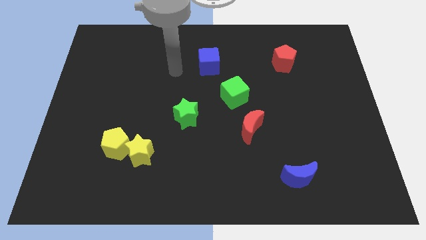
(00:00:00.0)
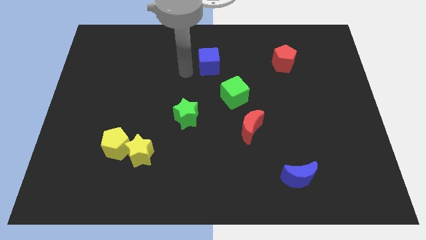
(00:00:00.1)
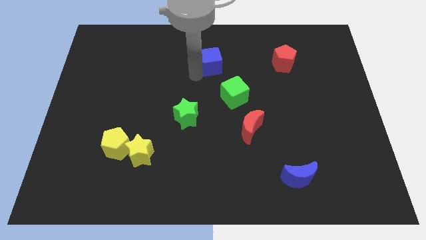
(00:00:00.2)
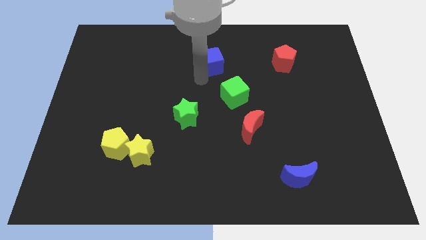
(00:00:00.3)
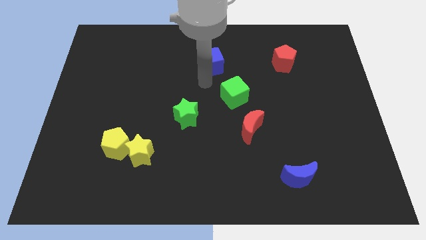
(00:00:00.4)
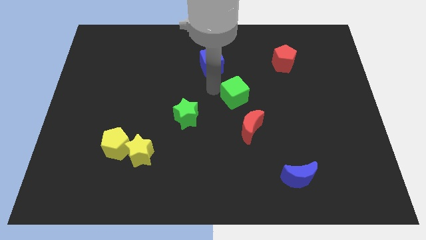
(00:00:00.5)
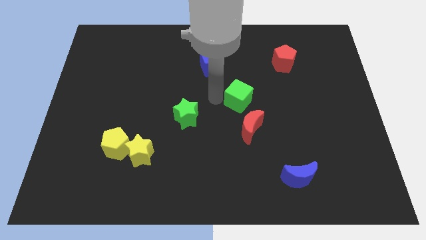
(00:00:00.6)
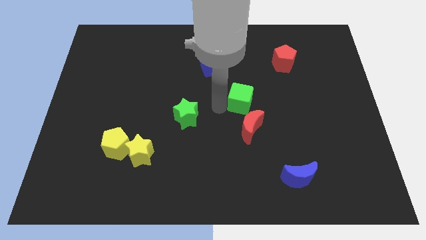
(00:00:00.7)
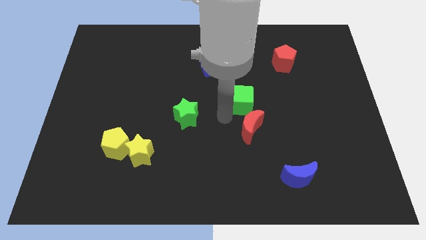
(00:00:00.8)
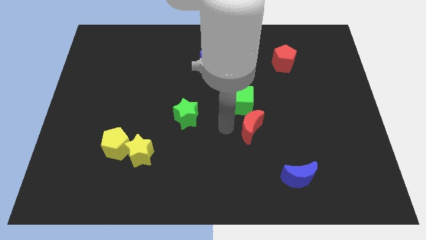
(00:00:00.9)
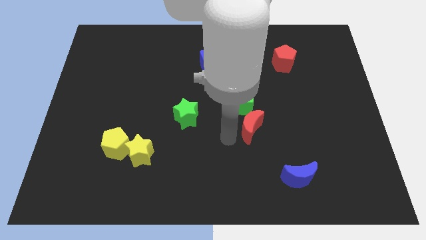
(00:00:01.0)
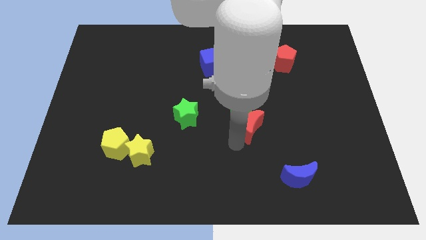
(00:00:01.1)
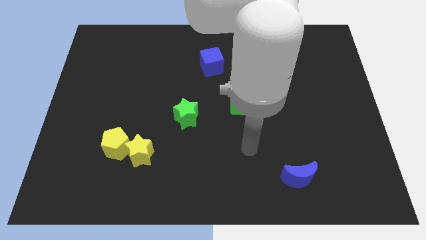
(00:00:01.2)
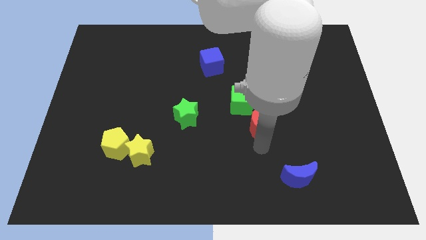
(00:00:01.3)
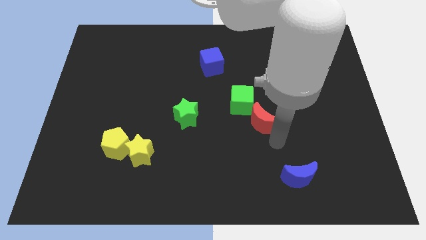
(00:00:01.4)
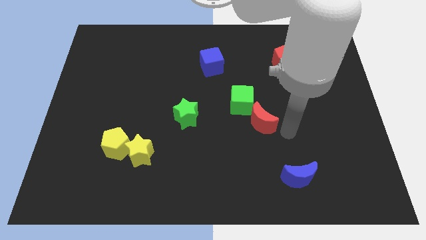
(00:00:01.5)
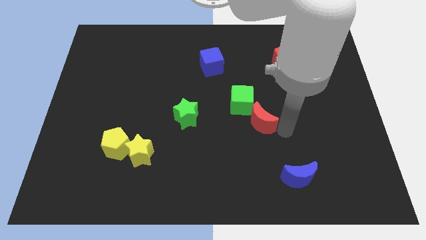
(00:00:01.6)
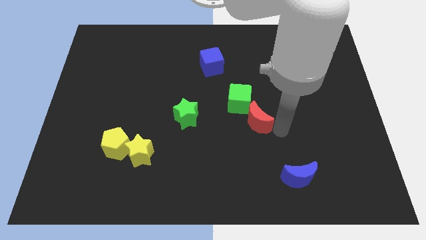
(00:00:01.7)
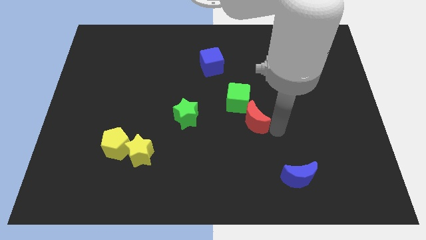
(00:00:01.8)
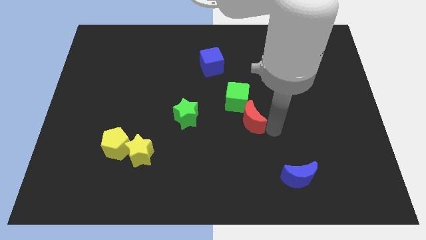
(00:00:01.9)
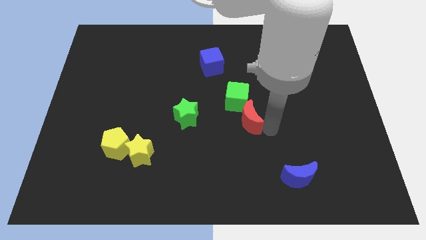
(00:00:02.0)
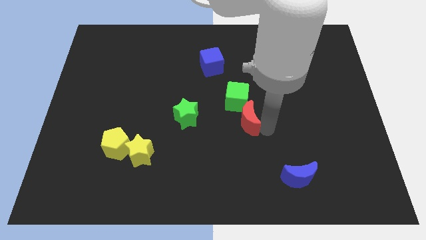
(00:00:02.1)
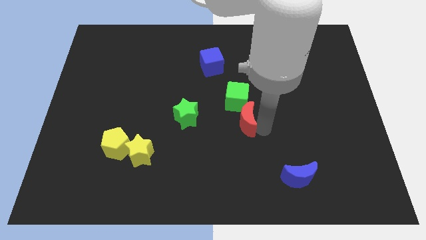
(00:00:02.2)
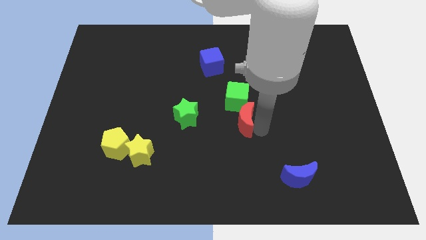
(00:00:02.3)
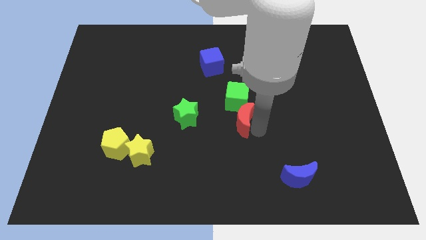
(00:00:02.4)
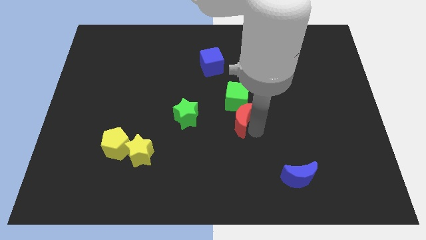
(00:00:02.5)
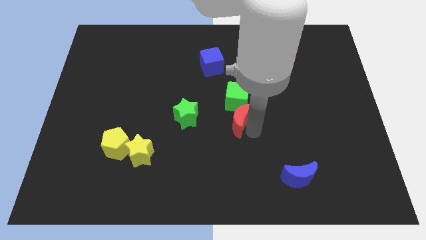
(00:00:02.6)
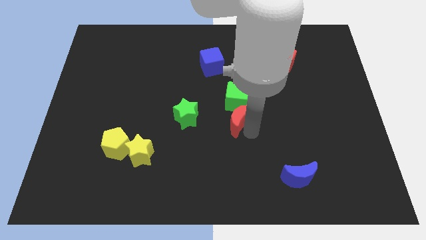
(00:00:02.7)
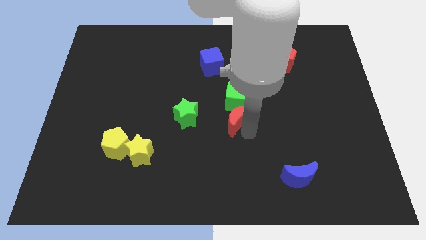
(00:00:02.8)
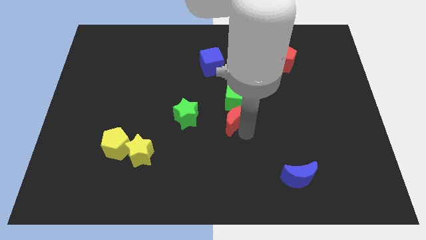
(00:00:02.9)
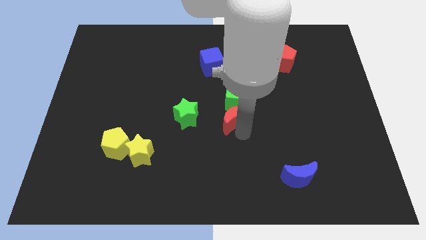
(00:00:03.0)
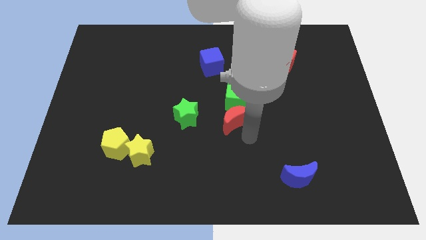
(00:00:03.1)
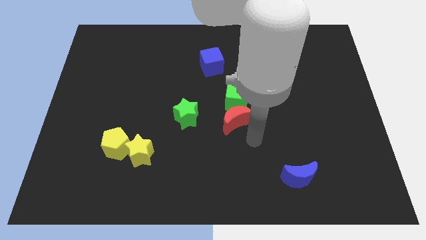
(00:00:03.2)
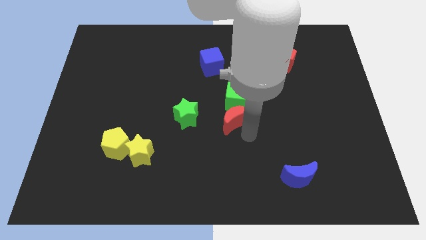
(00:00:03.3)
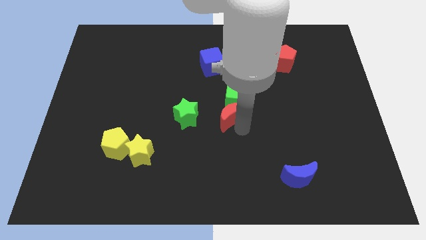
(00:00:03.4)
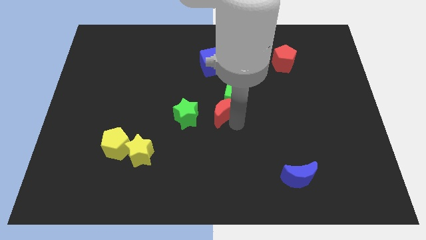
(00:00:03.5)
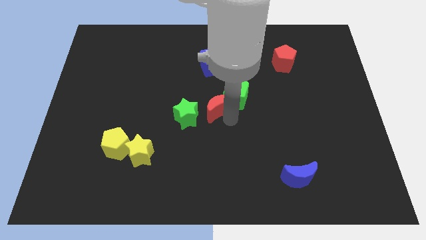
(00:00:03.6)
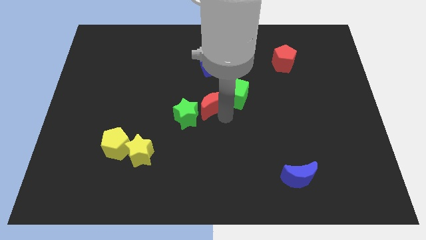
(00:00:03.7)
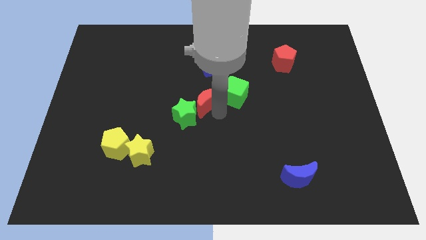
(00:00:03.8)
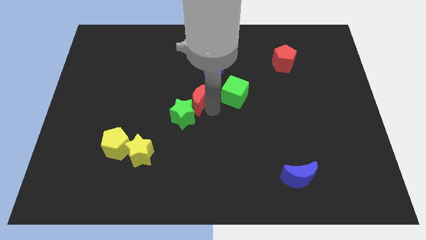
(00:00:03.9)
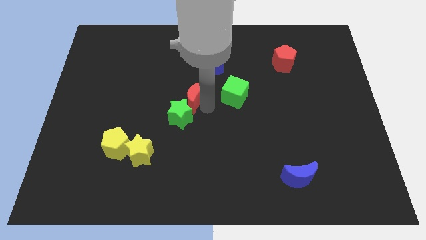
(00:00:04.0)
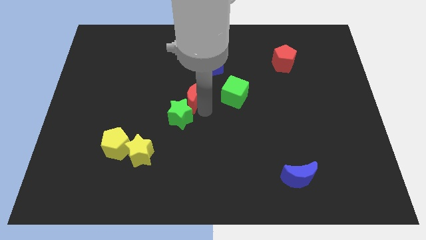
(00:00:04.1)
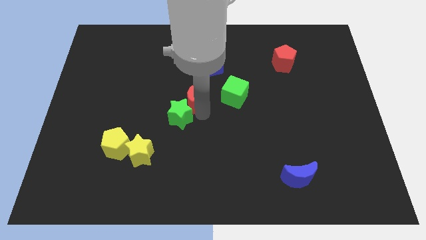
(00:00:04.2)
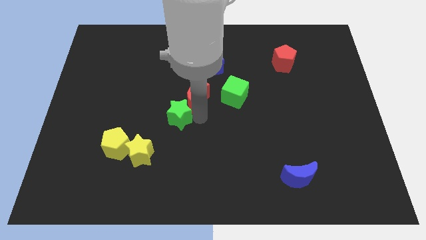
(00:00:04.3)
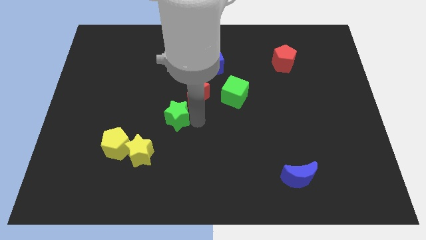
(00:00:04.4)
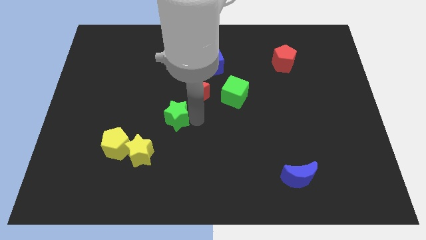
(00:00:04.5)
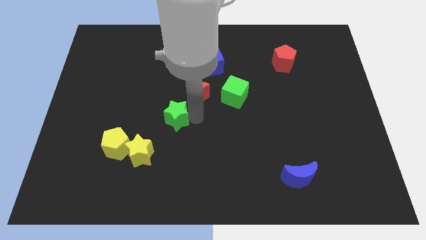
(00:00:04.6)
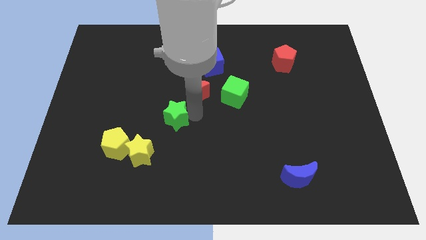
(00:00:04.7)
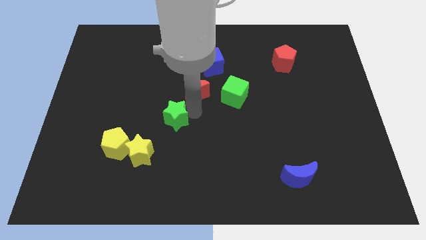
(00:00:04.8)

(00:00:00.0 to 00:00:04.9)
slide the red moon diagonally down and to the left of the blue cube

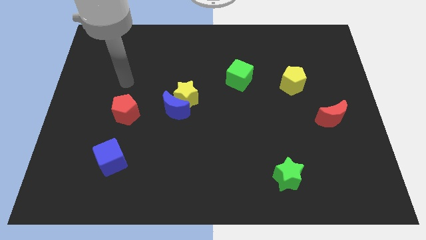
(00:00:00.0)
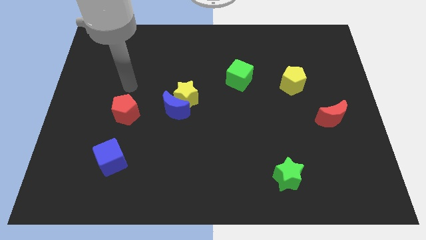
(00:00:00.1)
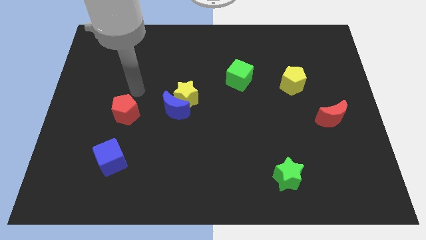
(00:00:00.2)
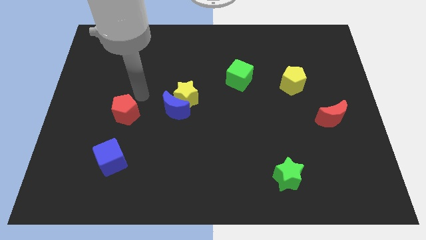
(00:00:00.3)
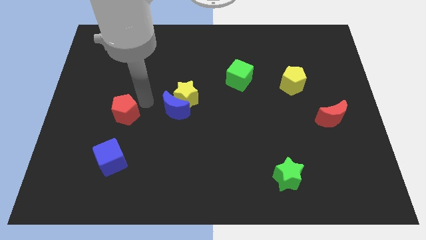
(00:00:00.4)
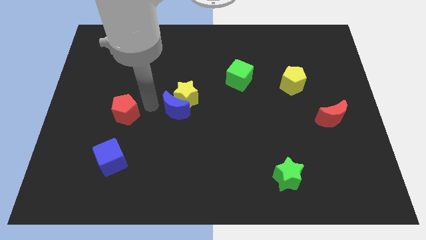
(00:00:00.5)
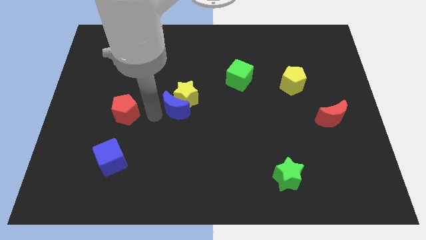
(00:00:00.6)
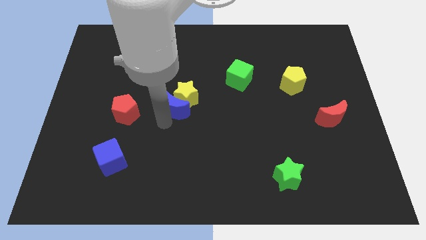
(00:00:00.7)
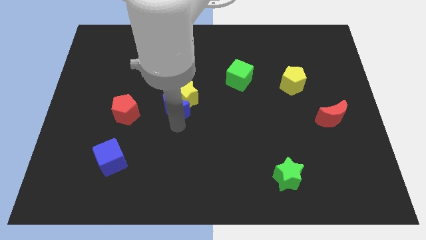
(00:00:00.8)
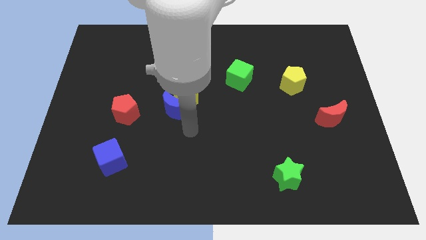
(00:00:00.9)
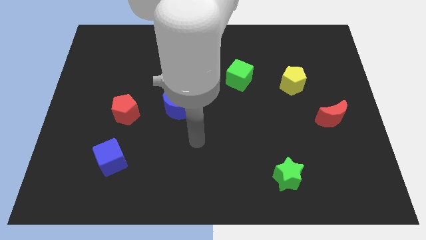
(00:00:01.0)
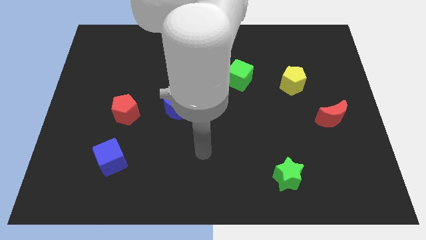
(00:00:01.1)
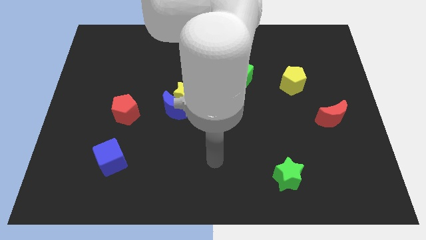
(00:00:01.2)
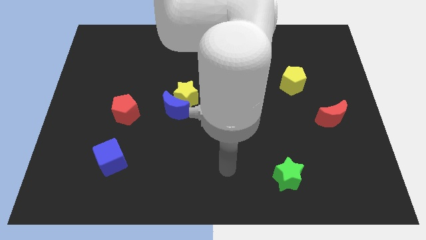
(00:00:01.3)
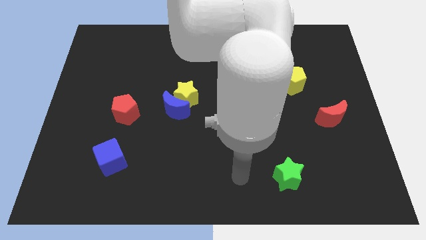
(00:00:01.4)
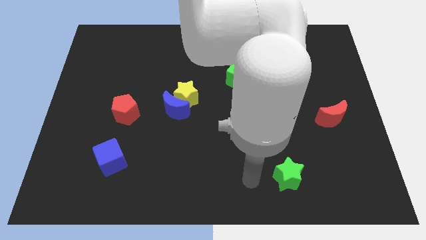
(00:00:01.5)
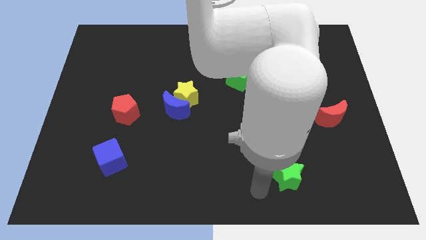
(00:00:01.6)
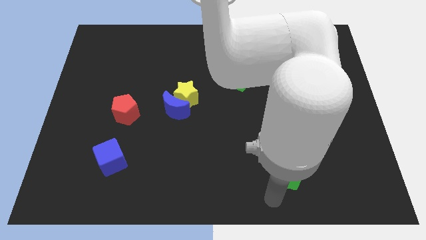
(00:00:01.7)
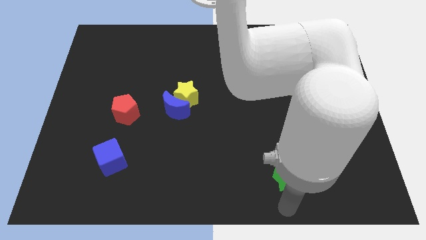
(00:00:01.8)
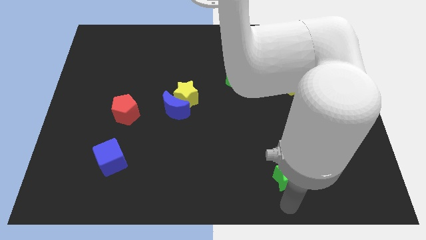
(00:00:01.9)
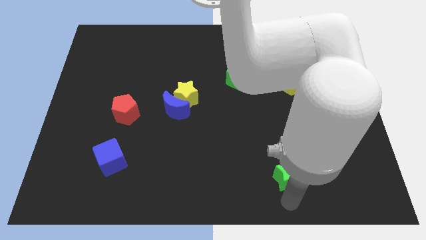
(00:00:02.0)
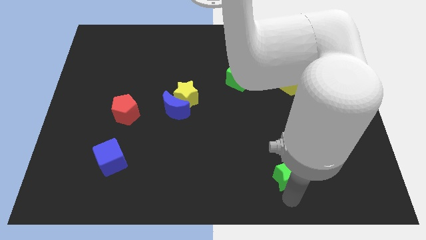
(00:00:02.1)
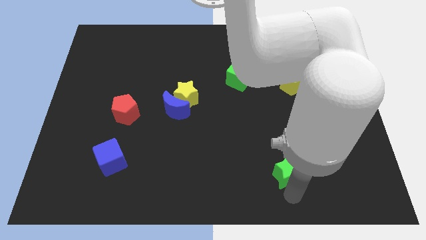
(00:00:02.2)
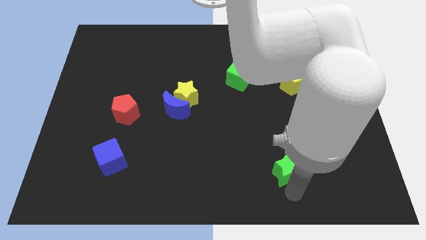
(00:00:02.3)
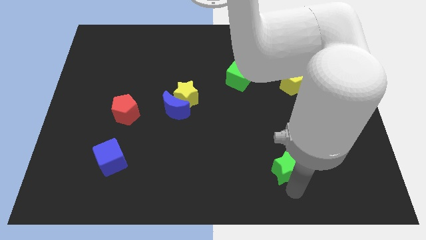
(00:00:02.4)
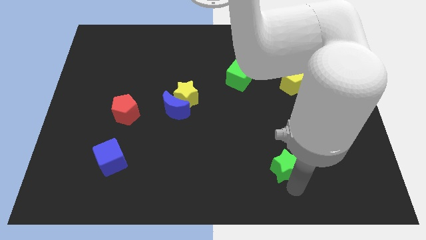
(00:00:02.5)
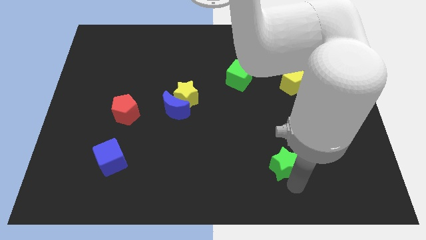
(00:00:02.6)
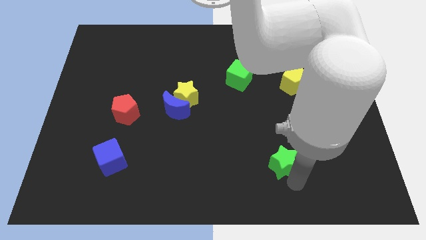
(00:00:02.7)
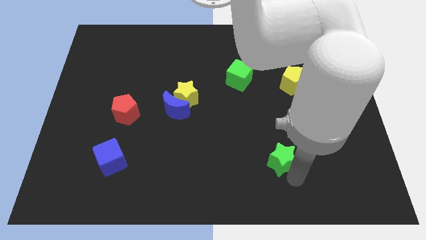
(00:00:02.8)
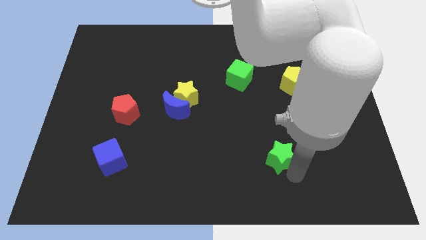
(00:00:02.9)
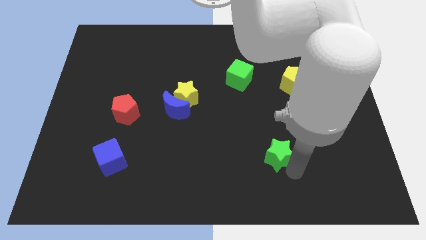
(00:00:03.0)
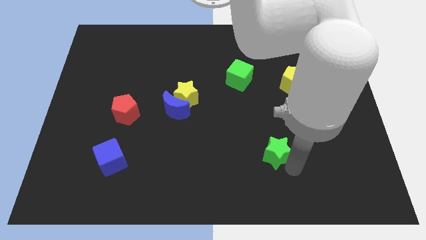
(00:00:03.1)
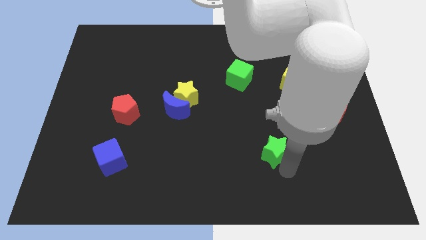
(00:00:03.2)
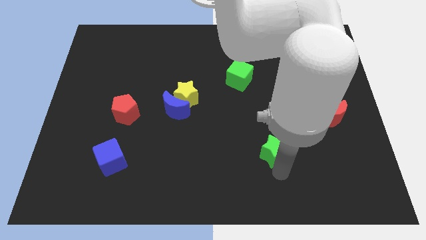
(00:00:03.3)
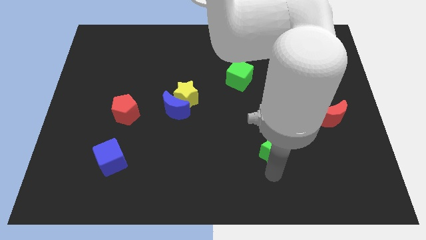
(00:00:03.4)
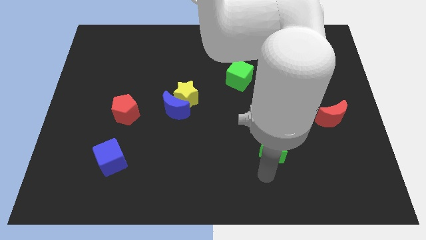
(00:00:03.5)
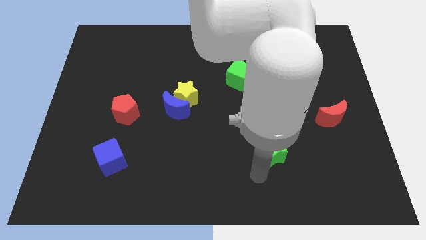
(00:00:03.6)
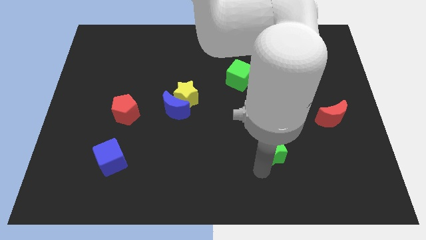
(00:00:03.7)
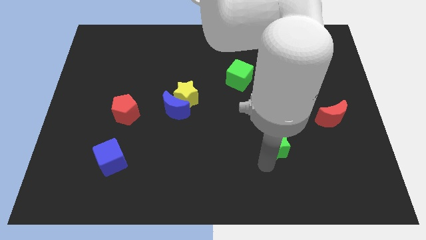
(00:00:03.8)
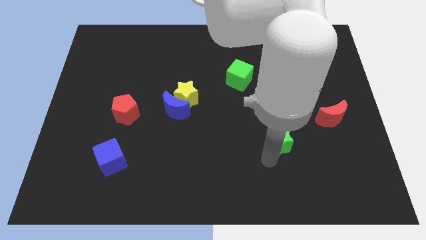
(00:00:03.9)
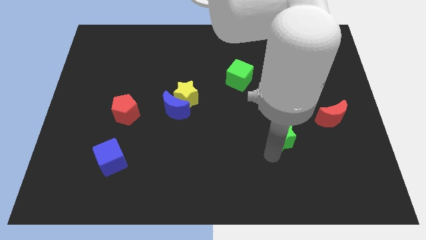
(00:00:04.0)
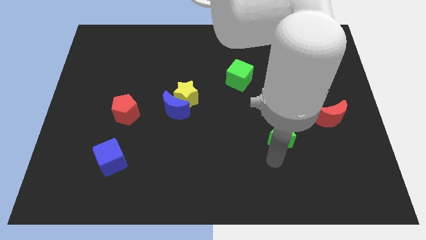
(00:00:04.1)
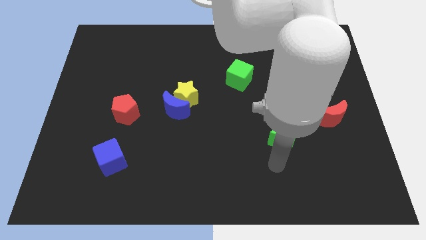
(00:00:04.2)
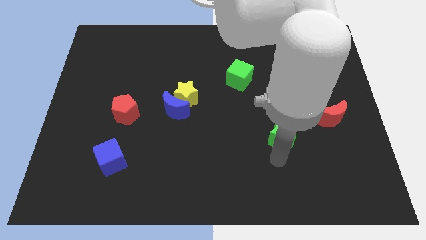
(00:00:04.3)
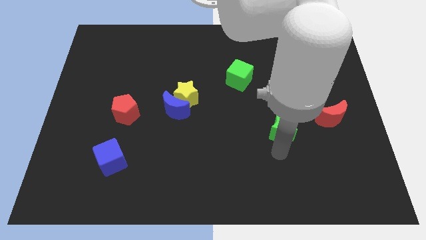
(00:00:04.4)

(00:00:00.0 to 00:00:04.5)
push the green star to the left side of the red moon
